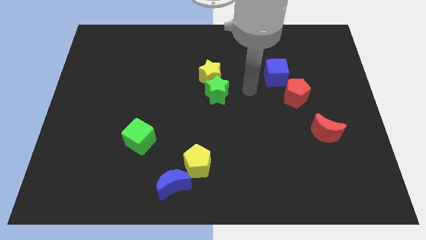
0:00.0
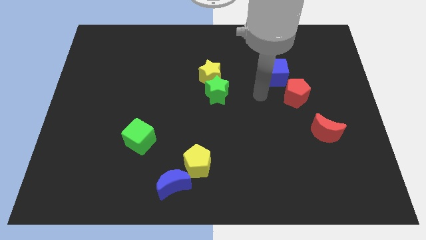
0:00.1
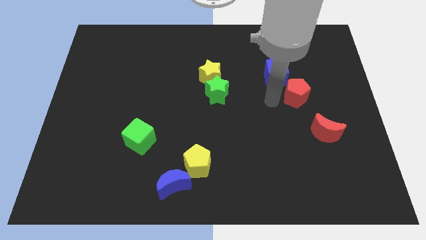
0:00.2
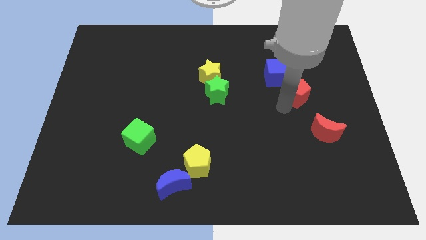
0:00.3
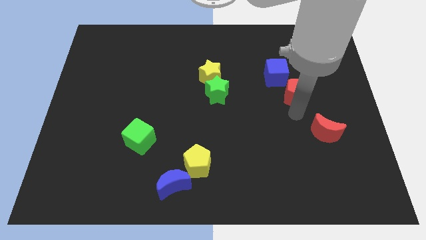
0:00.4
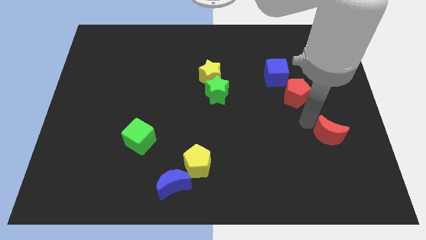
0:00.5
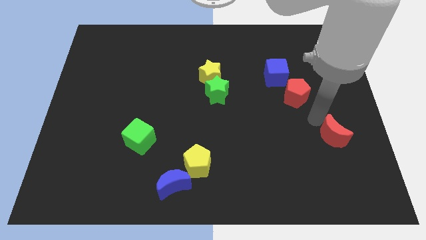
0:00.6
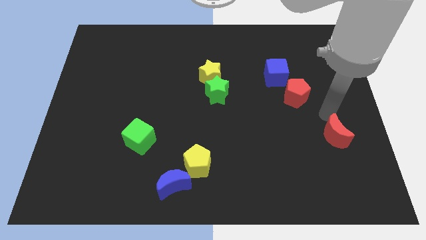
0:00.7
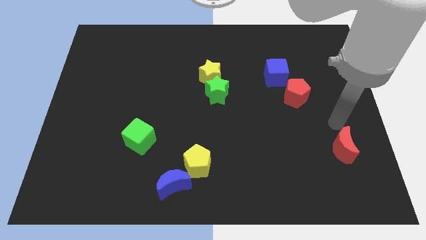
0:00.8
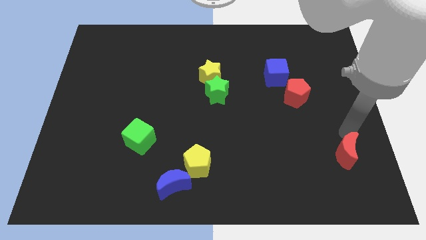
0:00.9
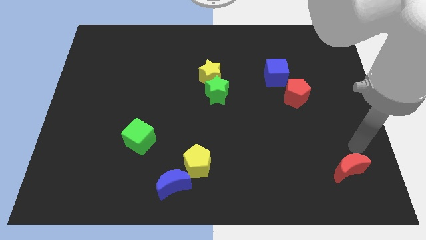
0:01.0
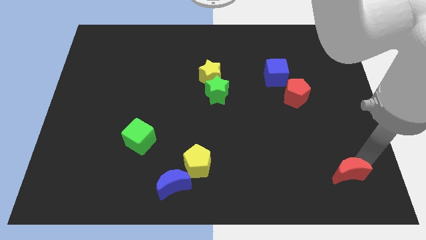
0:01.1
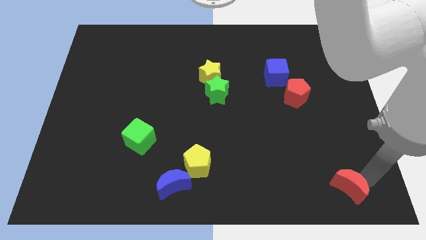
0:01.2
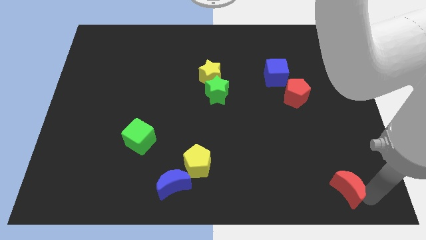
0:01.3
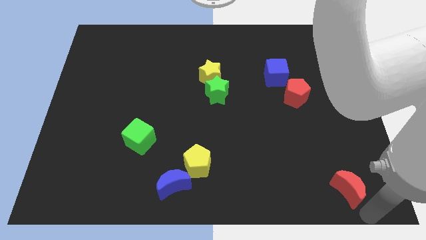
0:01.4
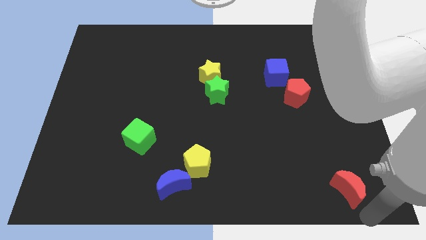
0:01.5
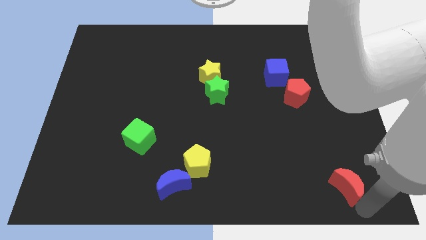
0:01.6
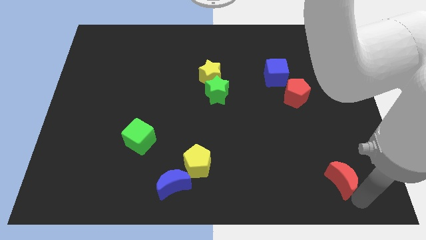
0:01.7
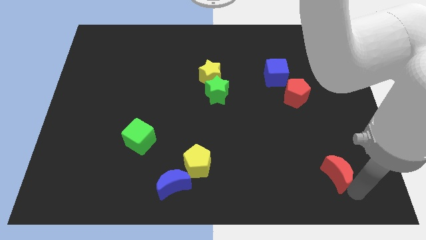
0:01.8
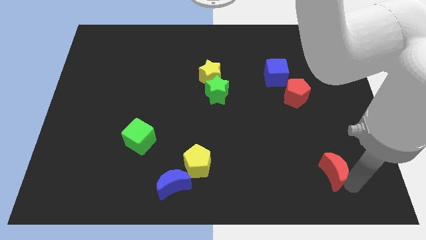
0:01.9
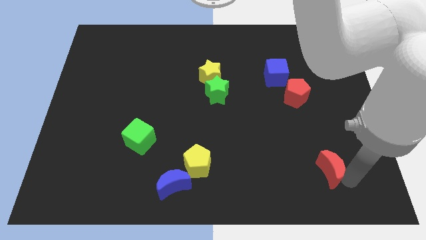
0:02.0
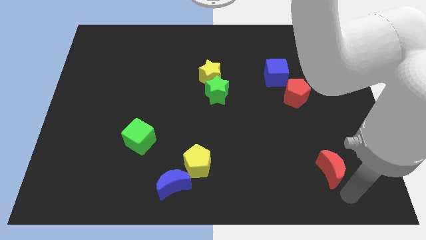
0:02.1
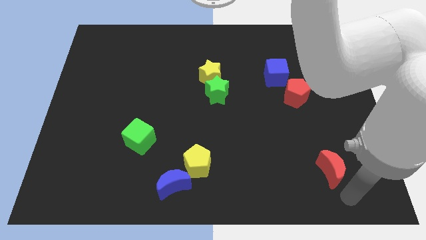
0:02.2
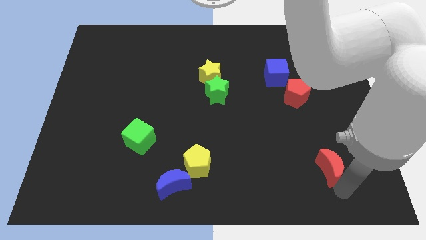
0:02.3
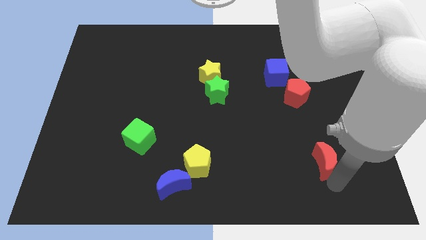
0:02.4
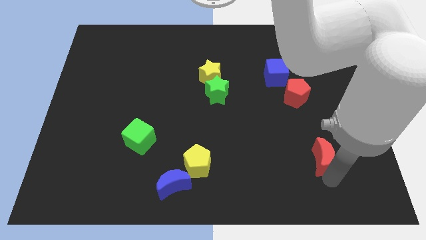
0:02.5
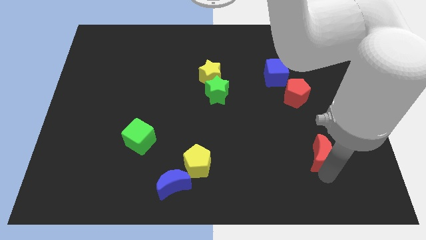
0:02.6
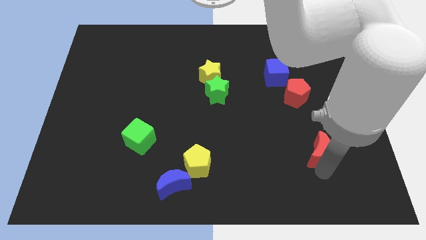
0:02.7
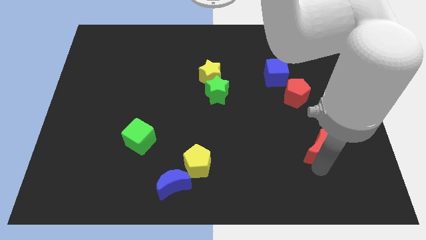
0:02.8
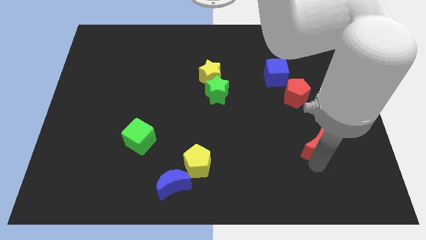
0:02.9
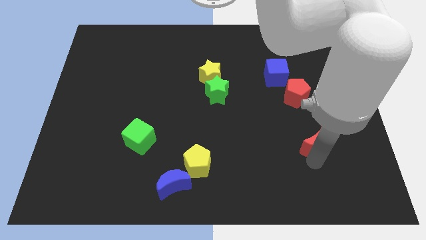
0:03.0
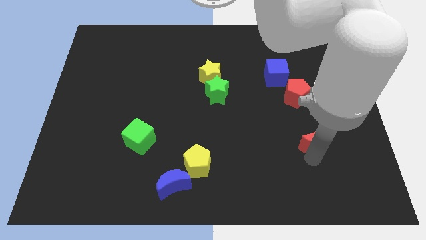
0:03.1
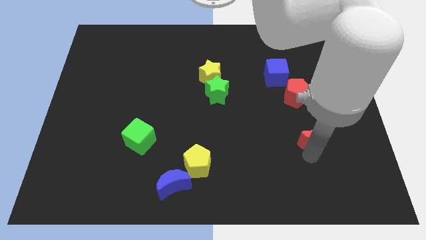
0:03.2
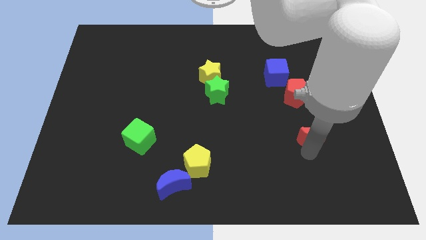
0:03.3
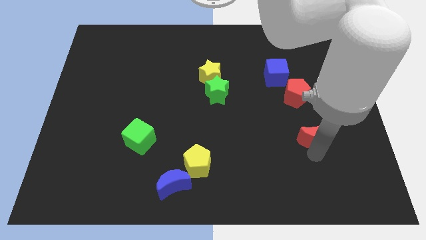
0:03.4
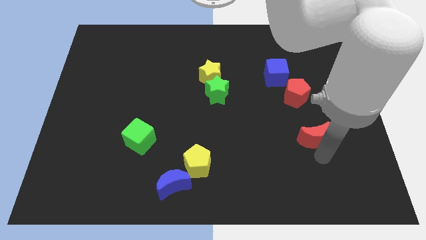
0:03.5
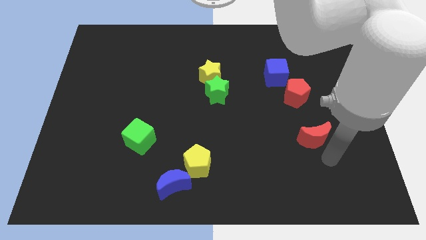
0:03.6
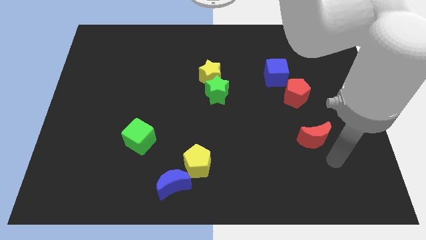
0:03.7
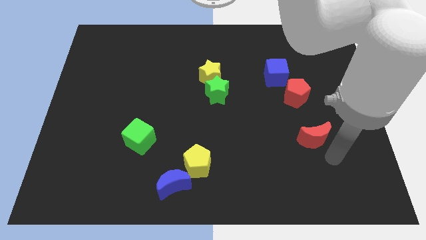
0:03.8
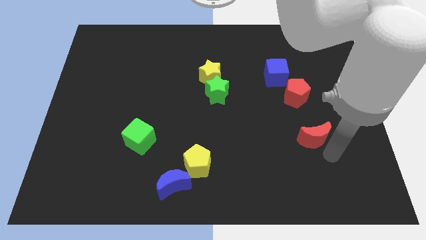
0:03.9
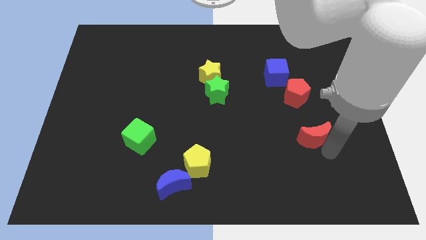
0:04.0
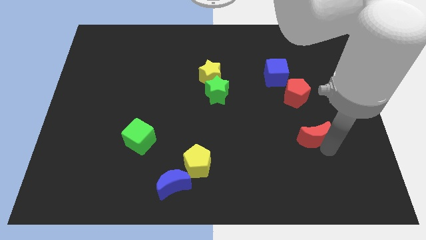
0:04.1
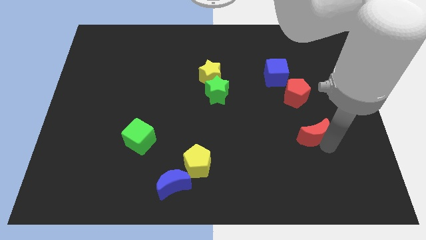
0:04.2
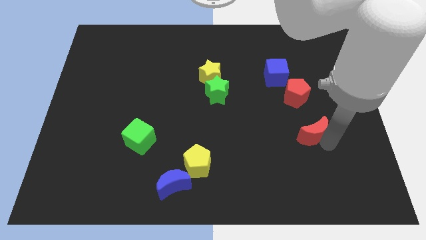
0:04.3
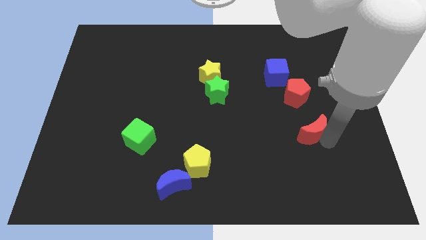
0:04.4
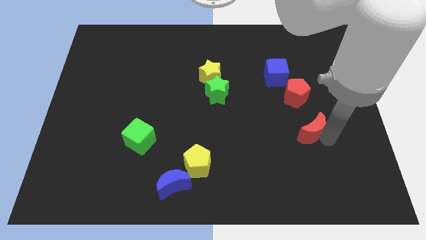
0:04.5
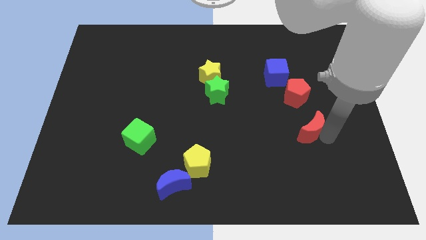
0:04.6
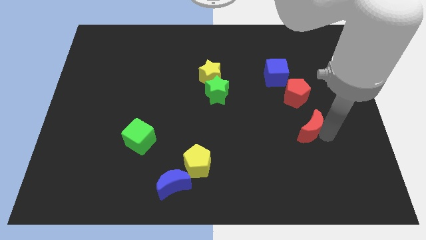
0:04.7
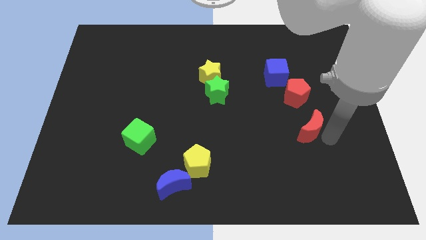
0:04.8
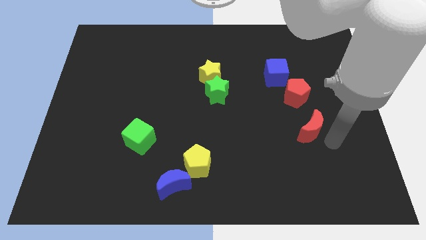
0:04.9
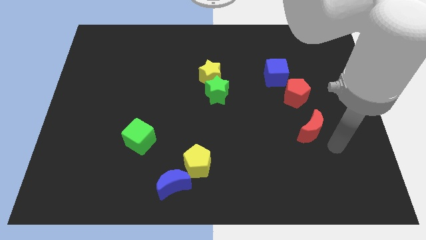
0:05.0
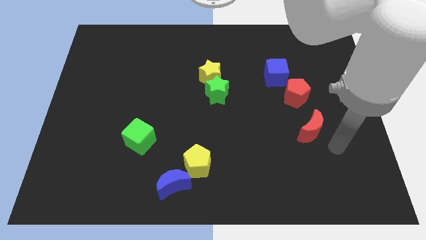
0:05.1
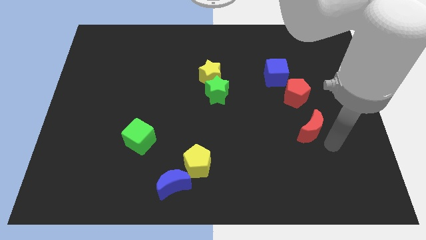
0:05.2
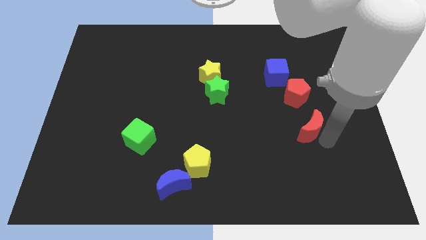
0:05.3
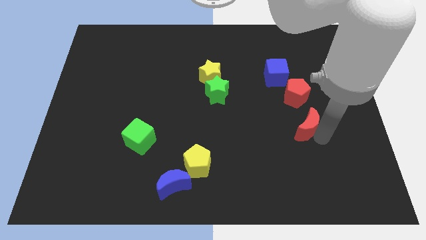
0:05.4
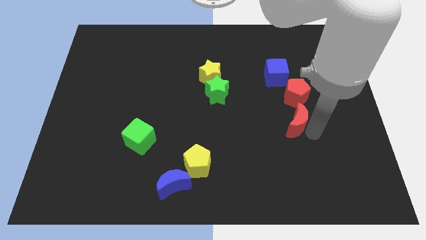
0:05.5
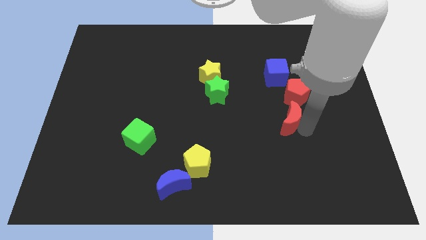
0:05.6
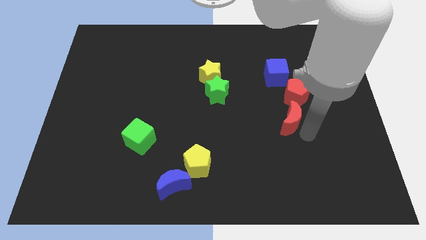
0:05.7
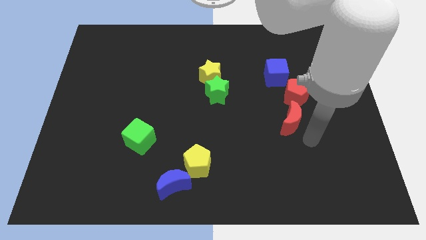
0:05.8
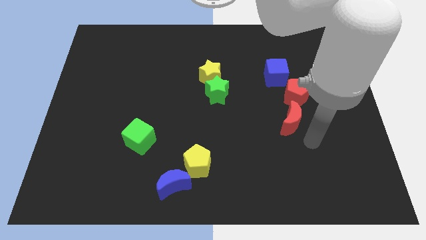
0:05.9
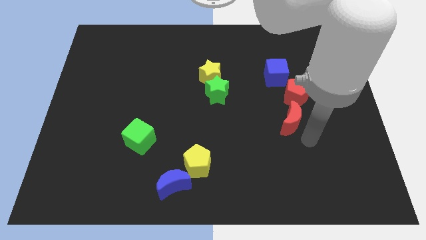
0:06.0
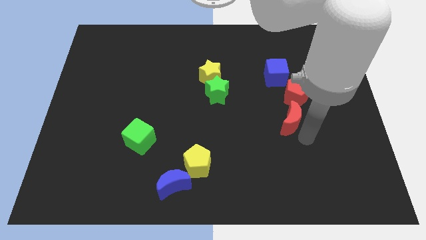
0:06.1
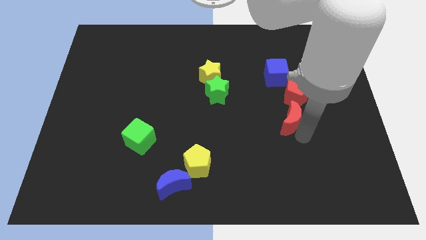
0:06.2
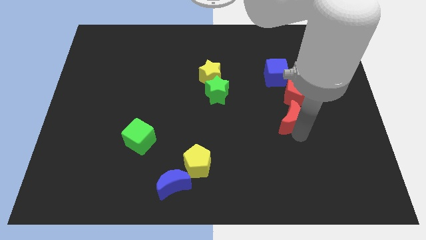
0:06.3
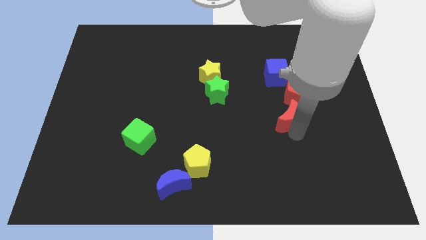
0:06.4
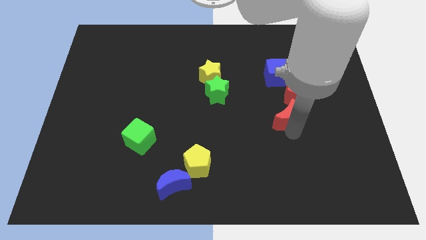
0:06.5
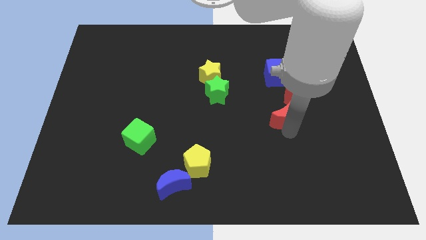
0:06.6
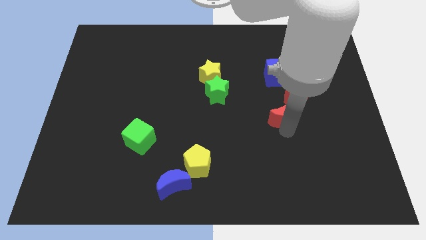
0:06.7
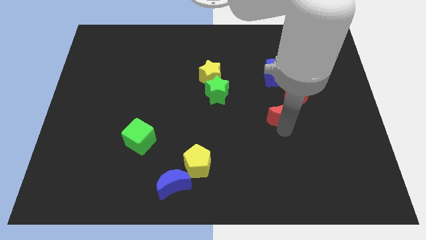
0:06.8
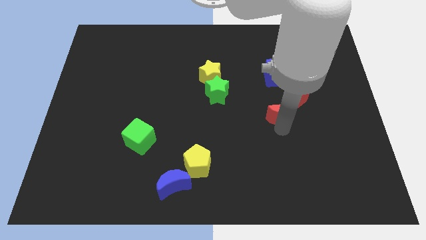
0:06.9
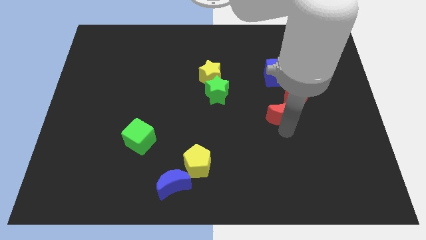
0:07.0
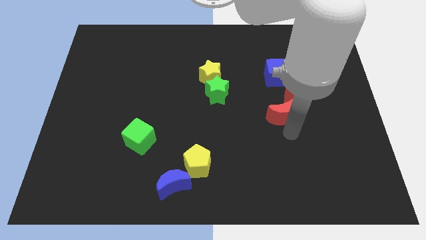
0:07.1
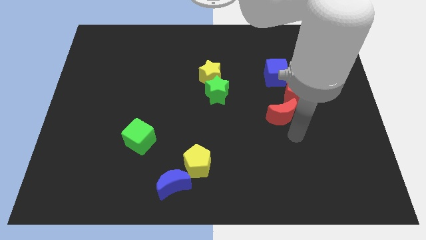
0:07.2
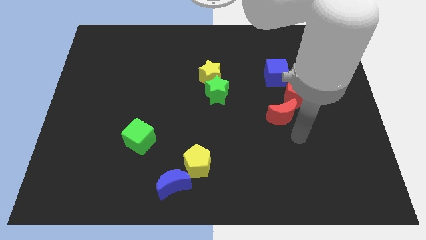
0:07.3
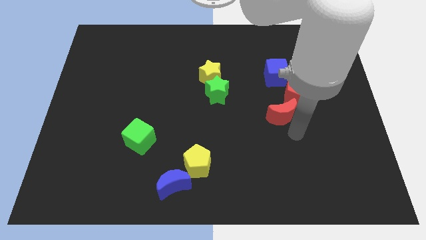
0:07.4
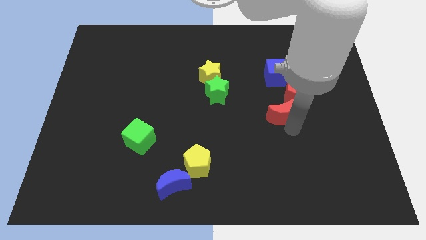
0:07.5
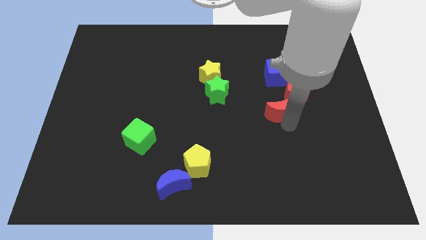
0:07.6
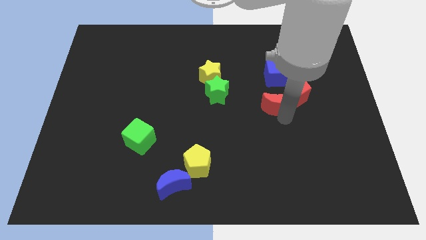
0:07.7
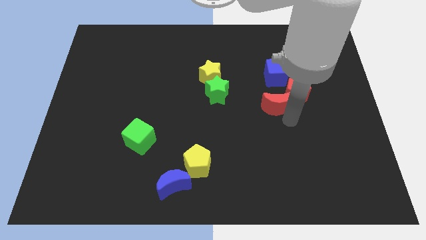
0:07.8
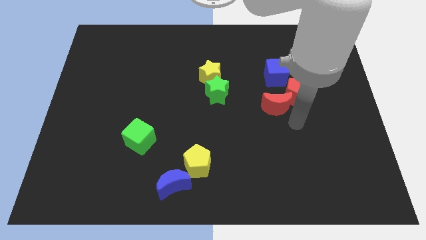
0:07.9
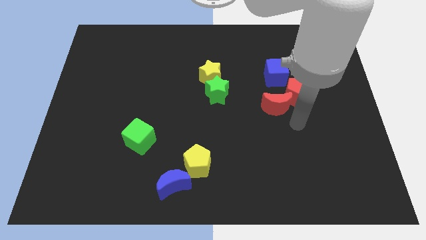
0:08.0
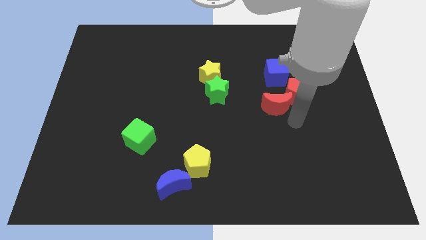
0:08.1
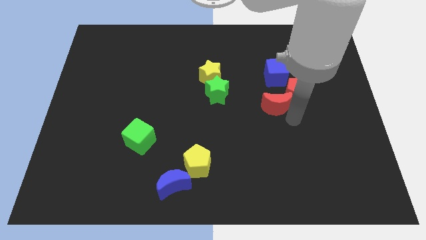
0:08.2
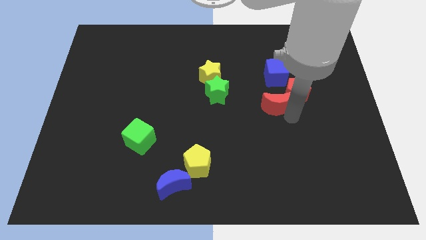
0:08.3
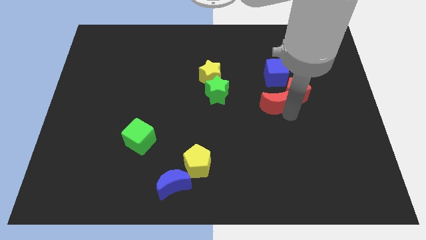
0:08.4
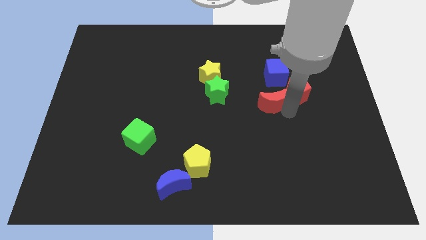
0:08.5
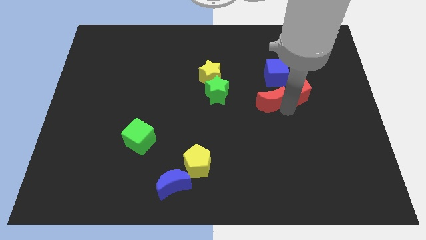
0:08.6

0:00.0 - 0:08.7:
slide the red moon to the bottom left side of the blue cube
